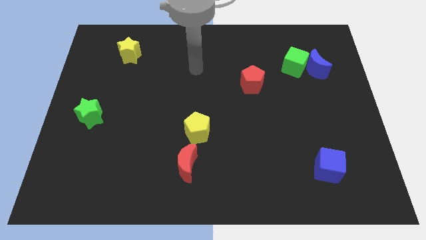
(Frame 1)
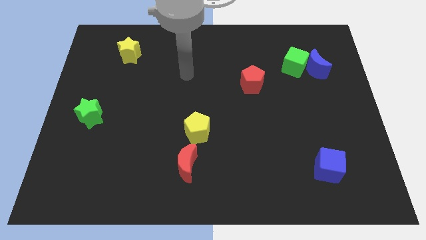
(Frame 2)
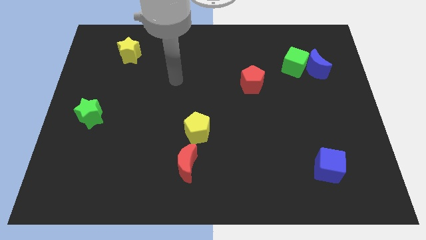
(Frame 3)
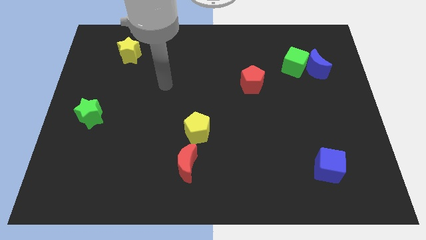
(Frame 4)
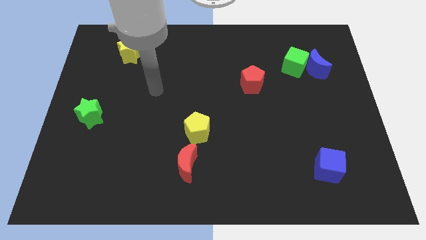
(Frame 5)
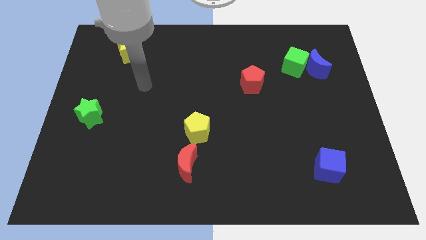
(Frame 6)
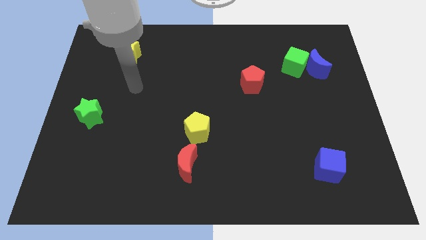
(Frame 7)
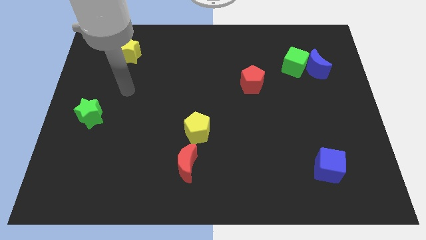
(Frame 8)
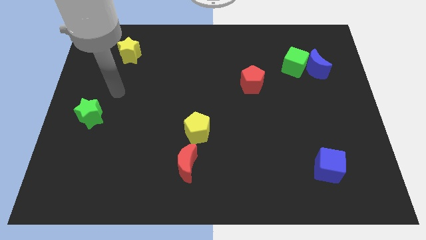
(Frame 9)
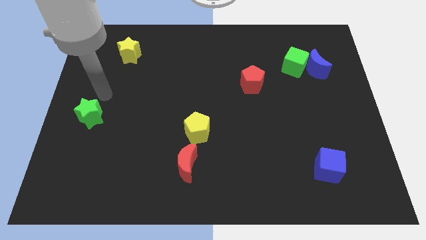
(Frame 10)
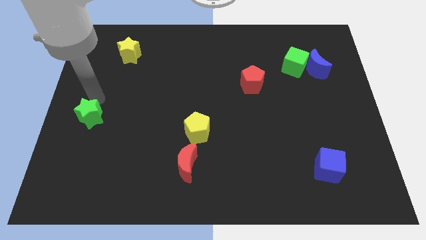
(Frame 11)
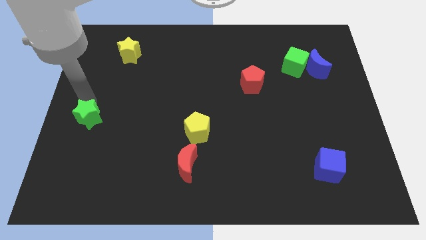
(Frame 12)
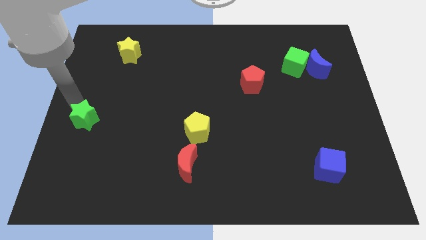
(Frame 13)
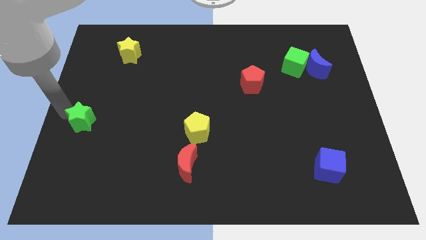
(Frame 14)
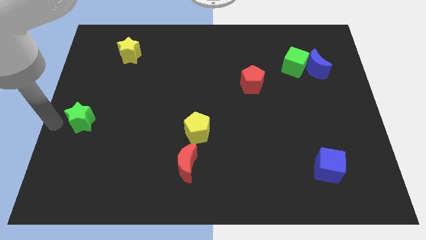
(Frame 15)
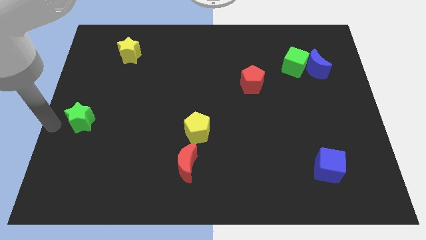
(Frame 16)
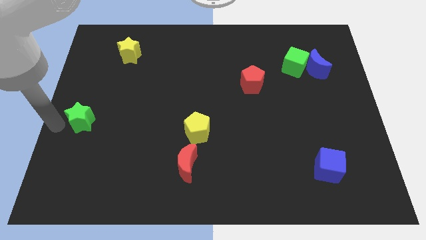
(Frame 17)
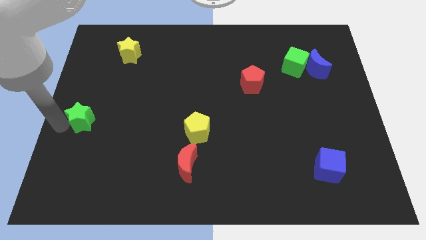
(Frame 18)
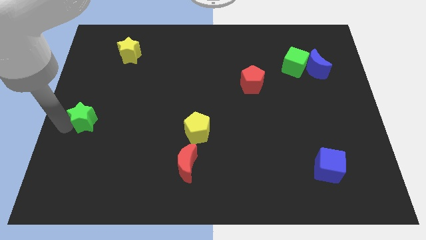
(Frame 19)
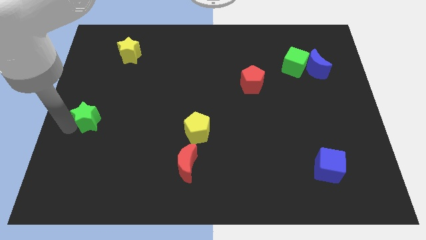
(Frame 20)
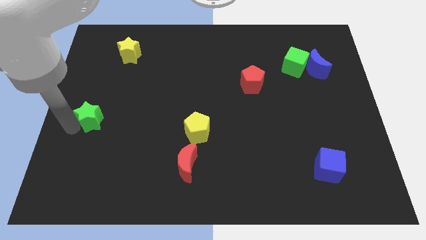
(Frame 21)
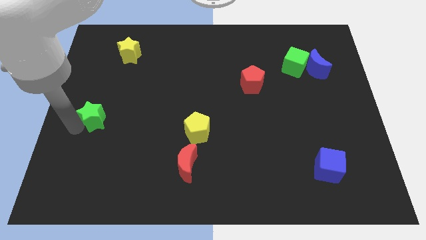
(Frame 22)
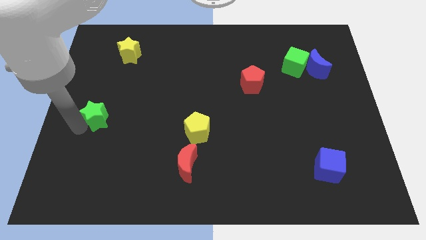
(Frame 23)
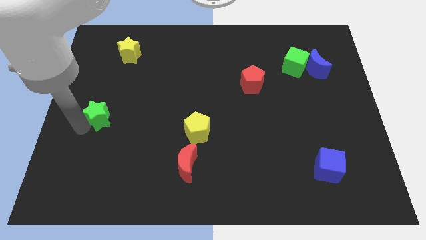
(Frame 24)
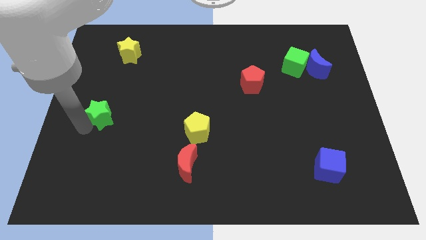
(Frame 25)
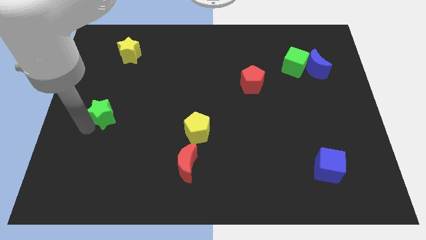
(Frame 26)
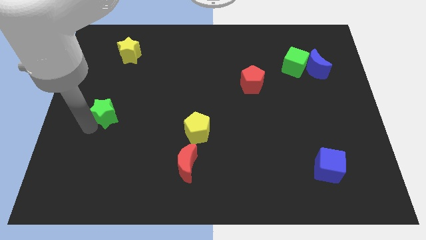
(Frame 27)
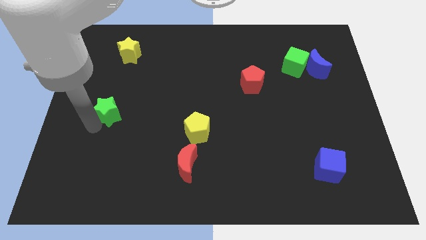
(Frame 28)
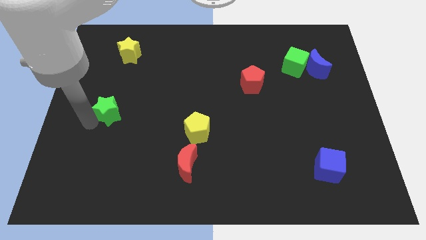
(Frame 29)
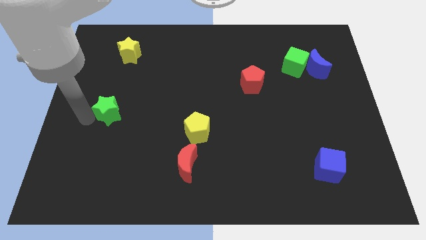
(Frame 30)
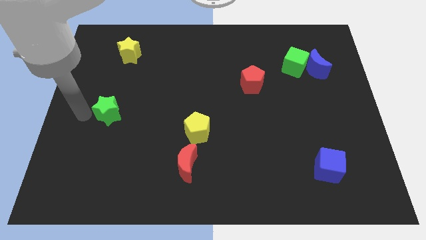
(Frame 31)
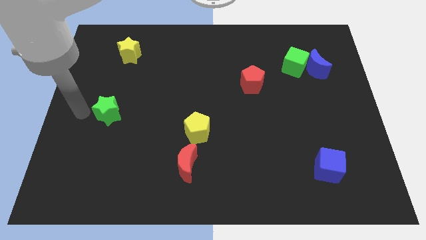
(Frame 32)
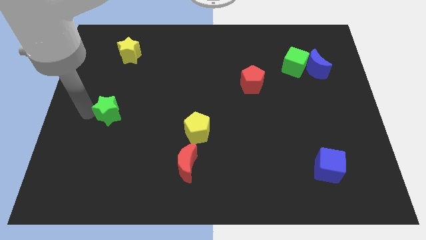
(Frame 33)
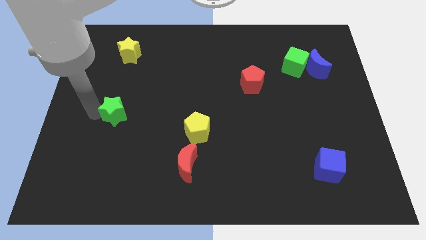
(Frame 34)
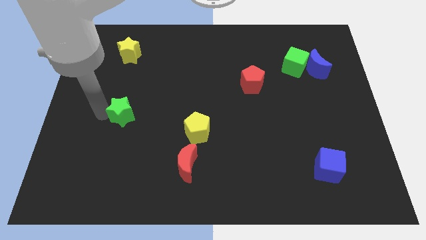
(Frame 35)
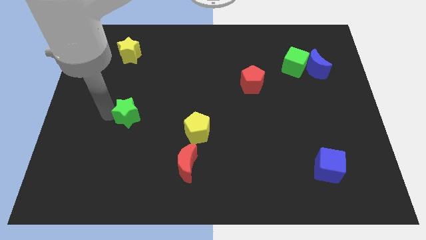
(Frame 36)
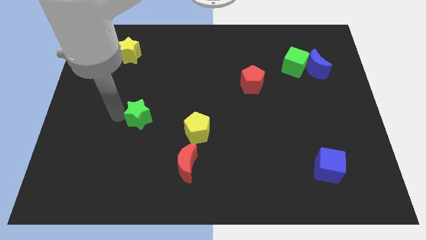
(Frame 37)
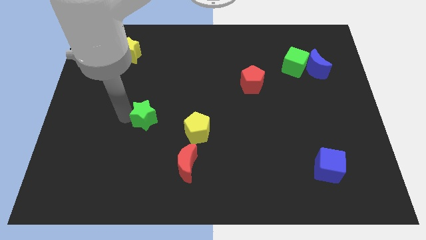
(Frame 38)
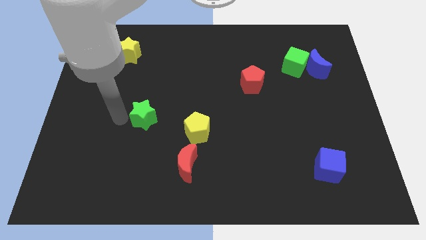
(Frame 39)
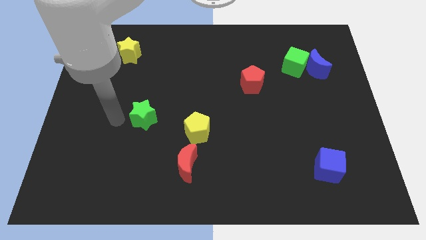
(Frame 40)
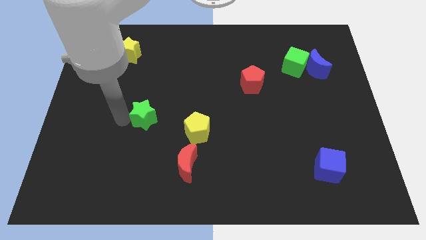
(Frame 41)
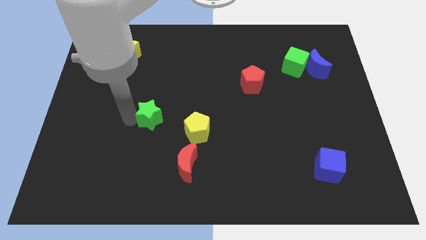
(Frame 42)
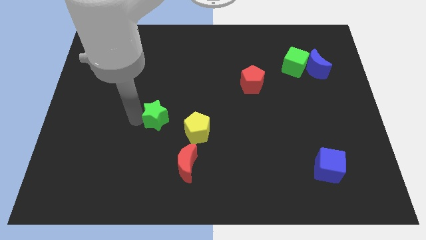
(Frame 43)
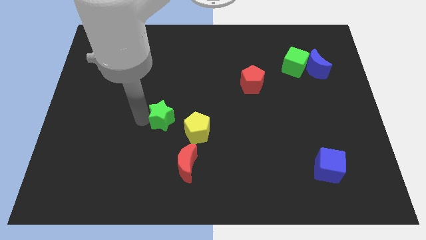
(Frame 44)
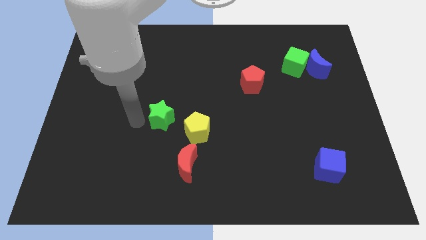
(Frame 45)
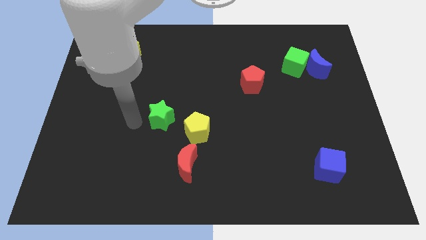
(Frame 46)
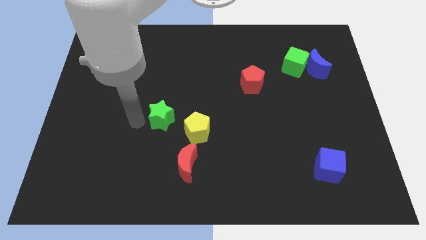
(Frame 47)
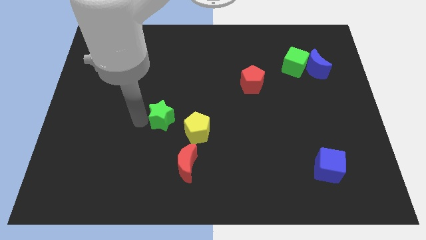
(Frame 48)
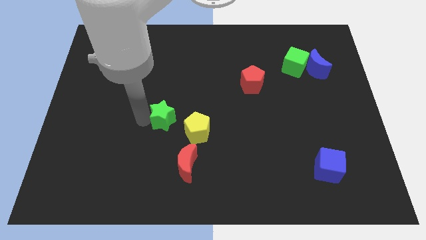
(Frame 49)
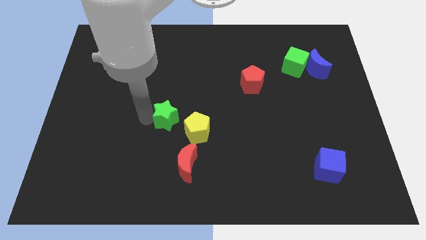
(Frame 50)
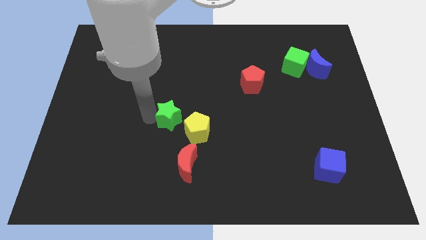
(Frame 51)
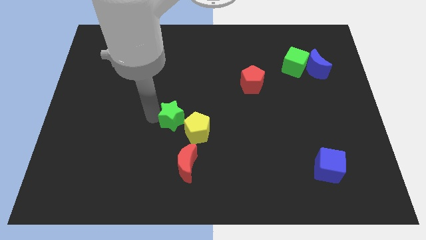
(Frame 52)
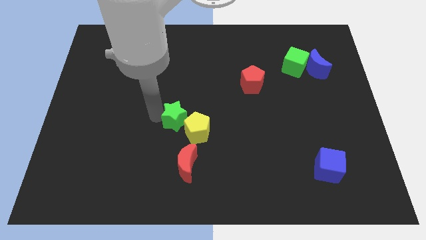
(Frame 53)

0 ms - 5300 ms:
slide the green star right

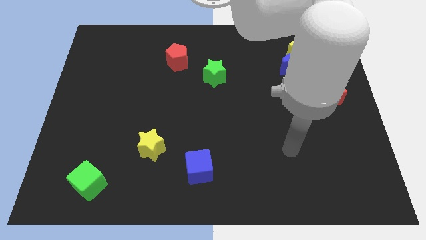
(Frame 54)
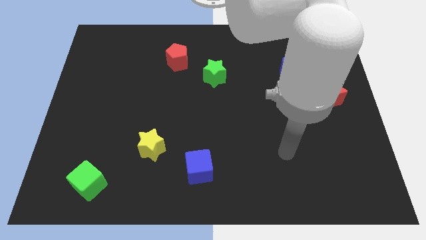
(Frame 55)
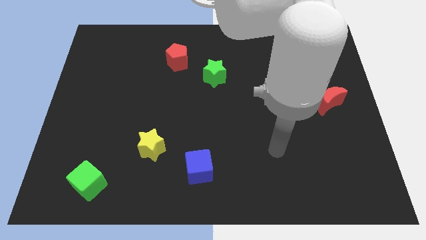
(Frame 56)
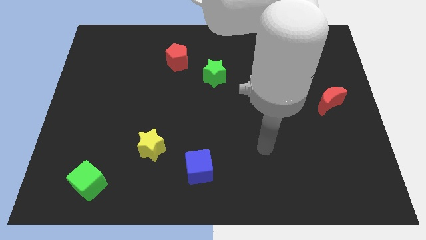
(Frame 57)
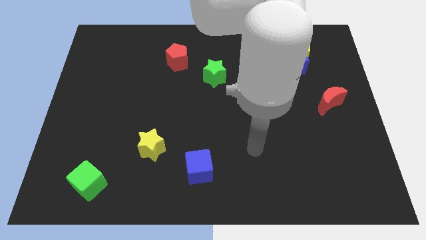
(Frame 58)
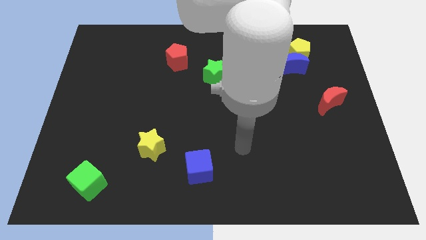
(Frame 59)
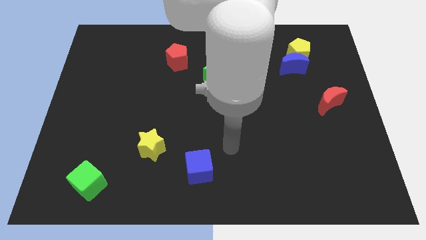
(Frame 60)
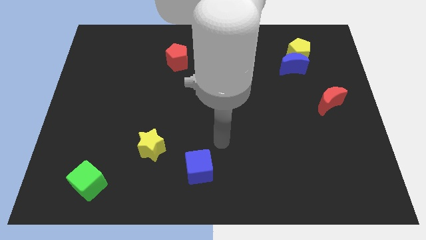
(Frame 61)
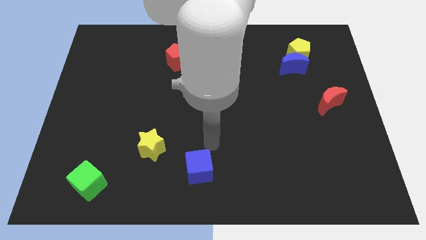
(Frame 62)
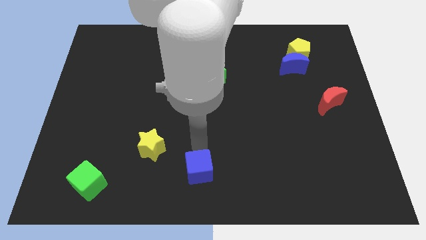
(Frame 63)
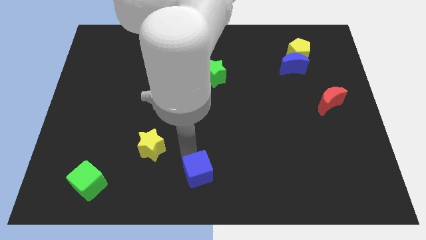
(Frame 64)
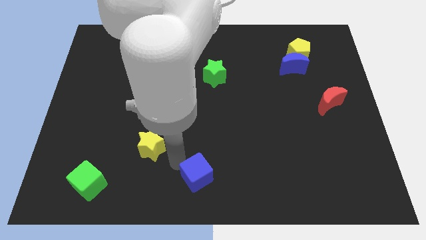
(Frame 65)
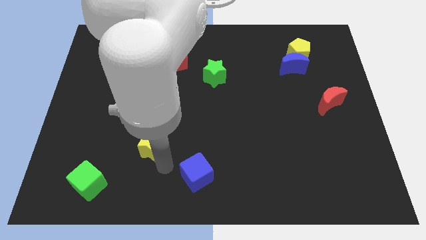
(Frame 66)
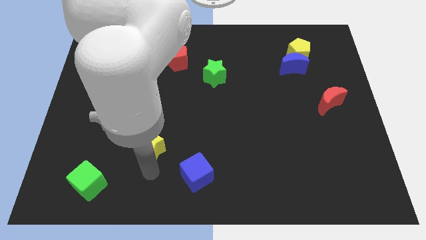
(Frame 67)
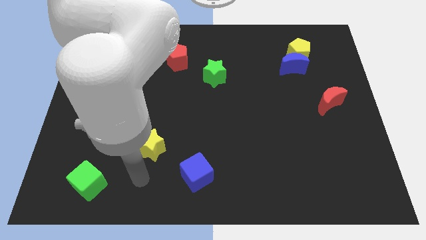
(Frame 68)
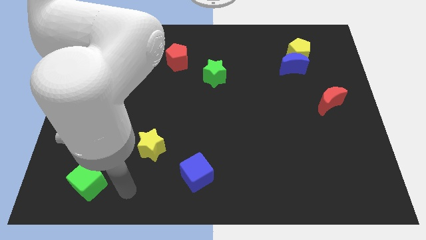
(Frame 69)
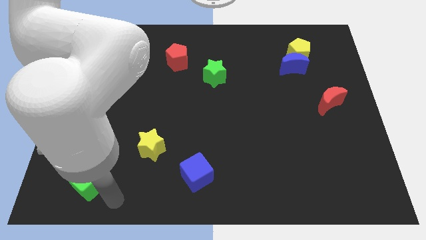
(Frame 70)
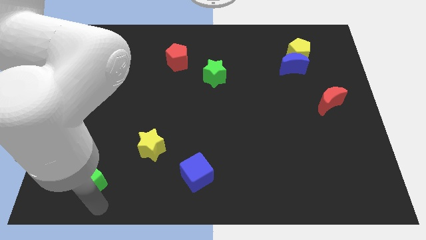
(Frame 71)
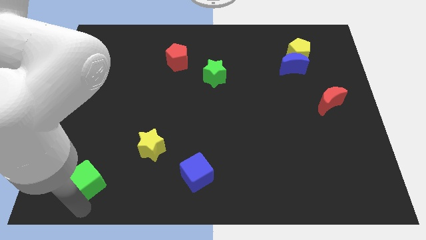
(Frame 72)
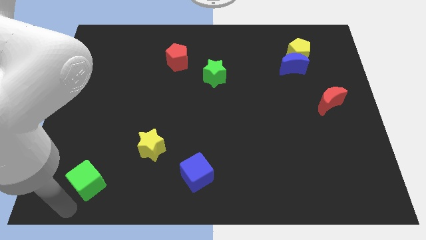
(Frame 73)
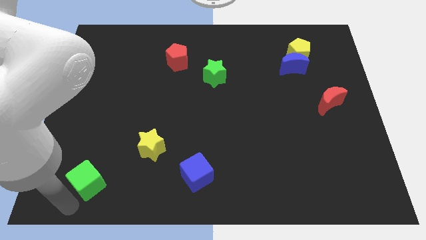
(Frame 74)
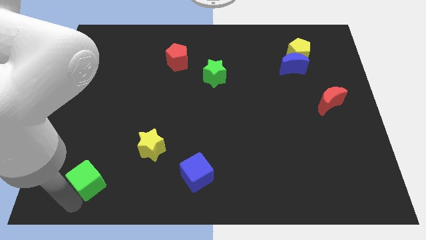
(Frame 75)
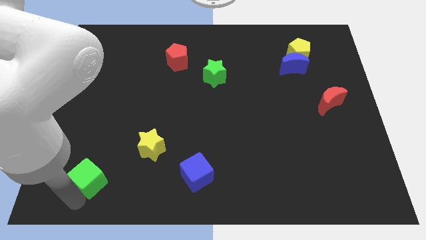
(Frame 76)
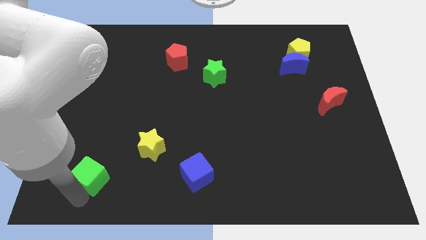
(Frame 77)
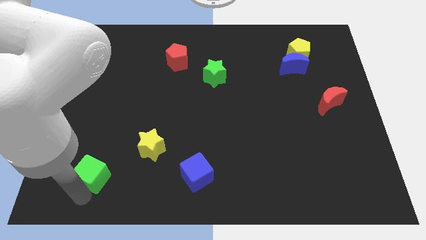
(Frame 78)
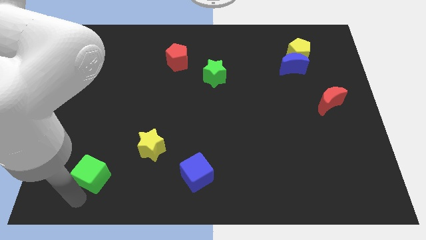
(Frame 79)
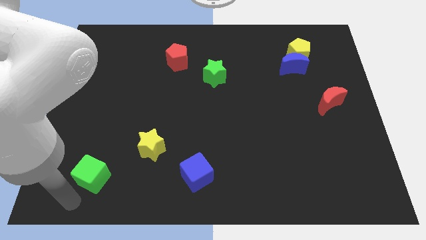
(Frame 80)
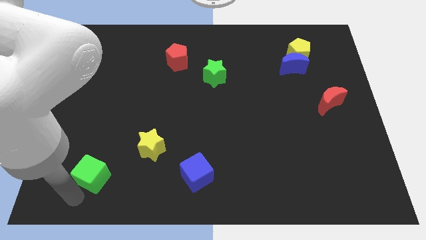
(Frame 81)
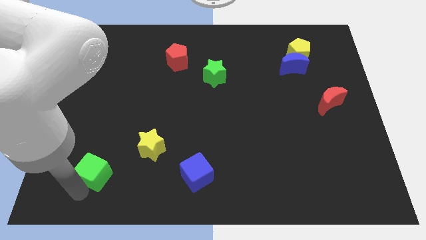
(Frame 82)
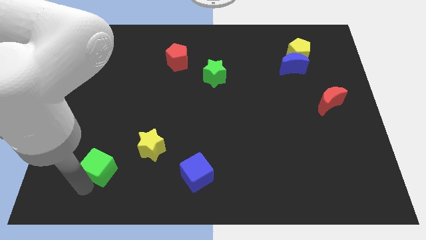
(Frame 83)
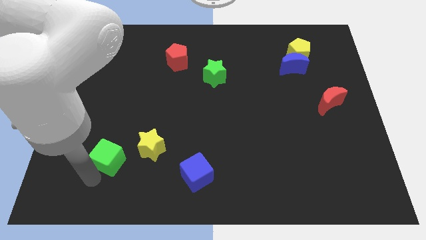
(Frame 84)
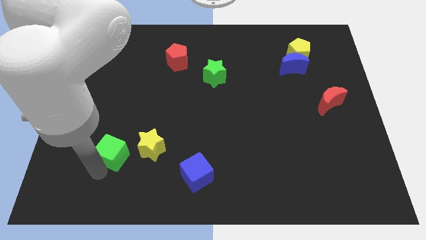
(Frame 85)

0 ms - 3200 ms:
slide the green cube diagonally up and right a little bit
